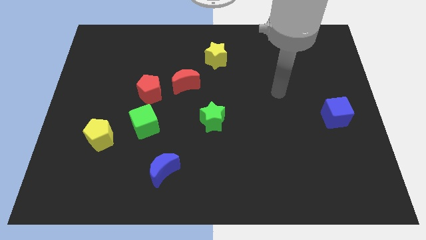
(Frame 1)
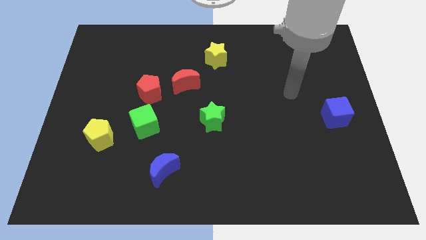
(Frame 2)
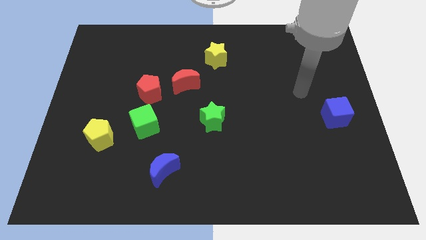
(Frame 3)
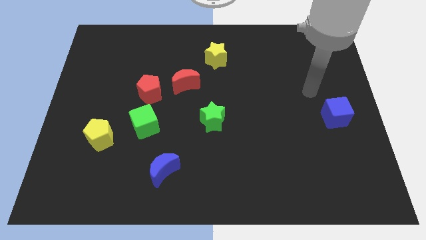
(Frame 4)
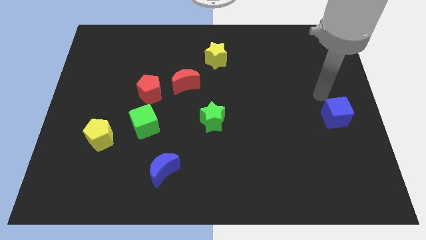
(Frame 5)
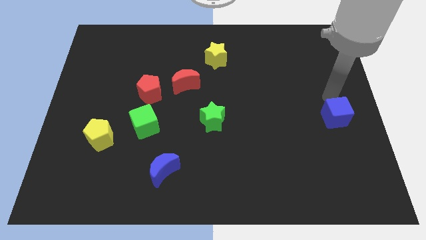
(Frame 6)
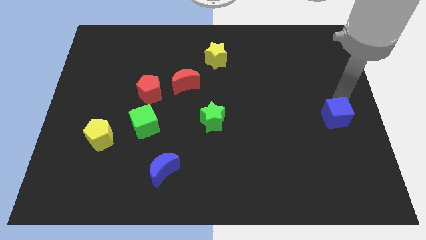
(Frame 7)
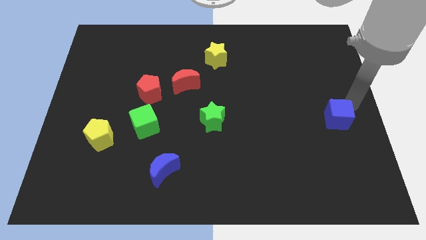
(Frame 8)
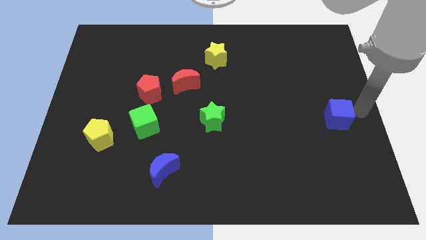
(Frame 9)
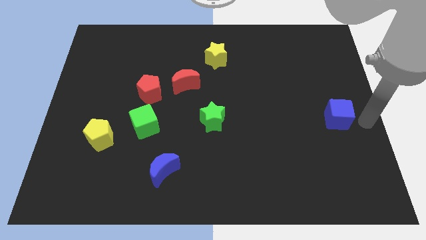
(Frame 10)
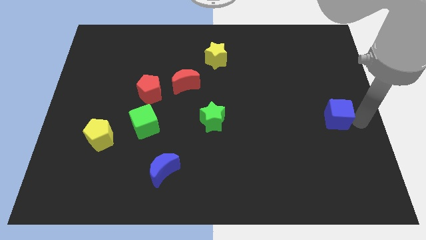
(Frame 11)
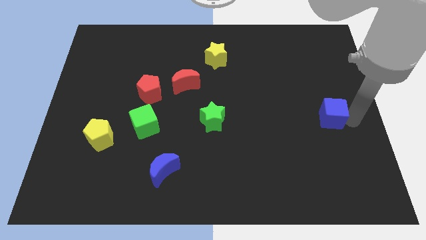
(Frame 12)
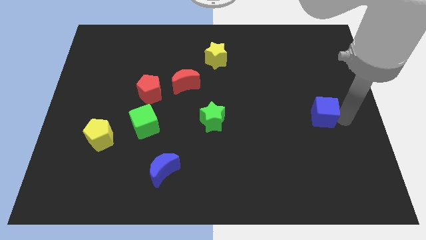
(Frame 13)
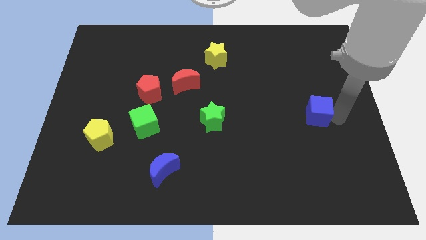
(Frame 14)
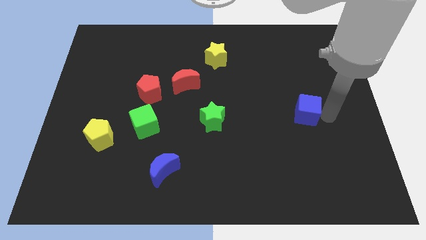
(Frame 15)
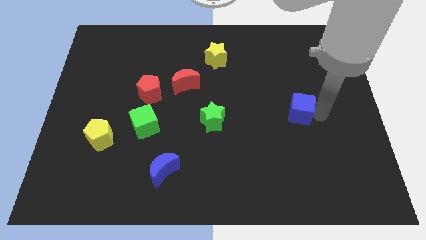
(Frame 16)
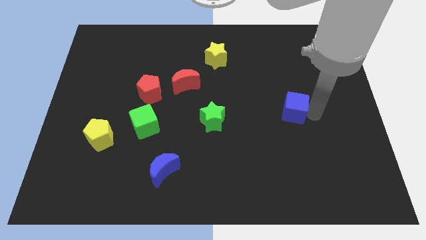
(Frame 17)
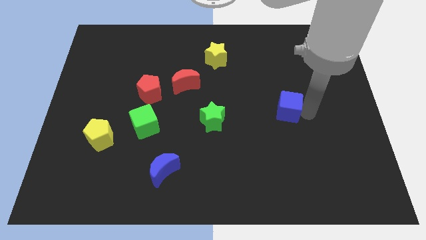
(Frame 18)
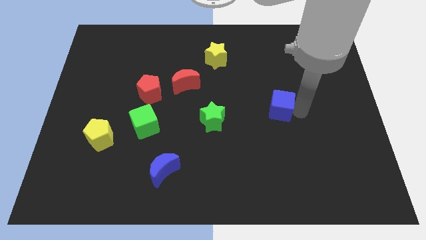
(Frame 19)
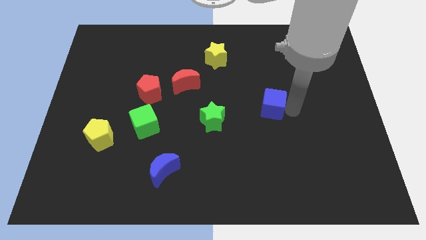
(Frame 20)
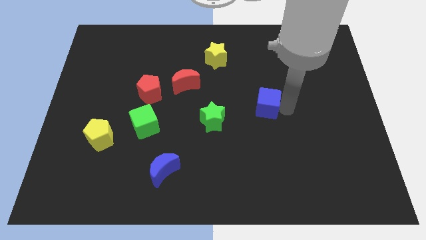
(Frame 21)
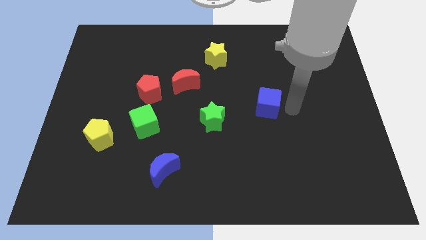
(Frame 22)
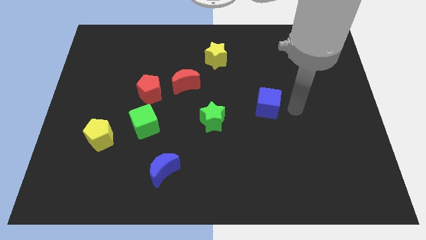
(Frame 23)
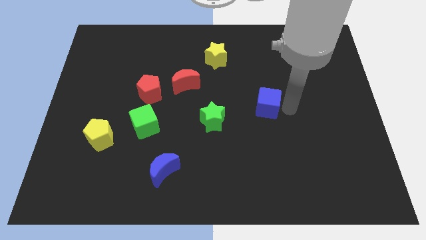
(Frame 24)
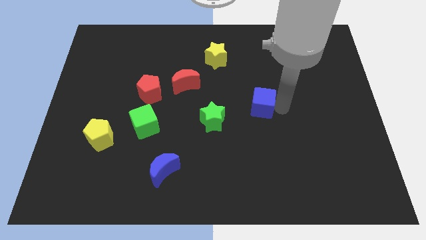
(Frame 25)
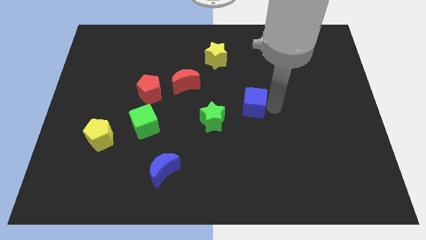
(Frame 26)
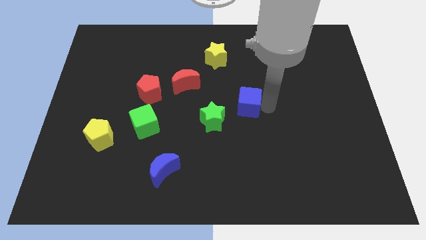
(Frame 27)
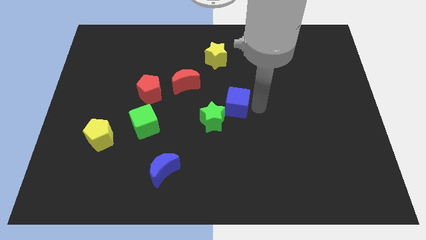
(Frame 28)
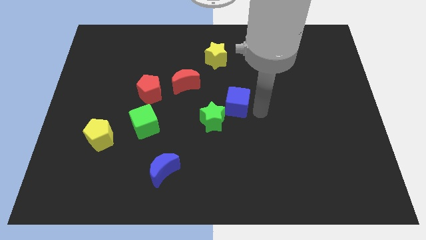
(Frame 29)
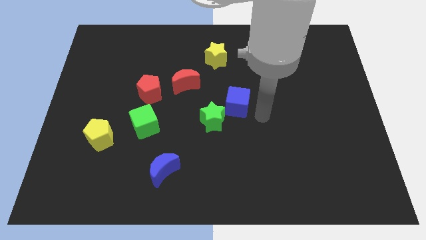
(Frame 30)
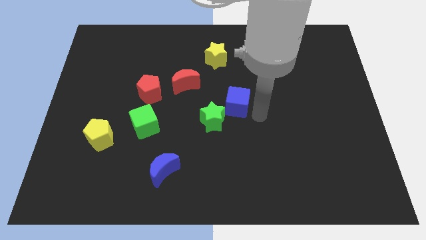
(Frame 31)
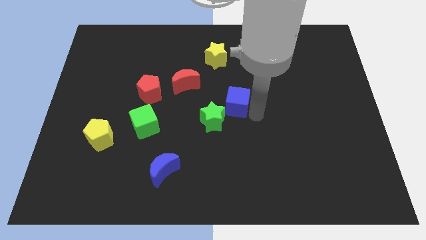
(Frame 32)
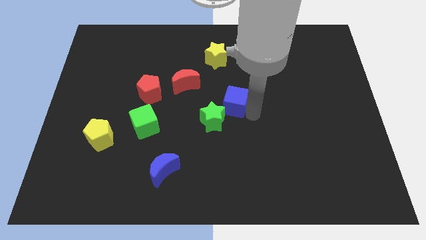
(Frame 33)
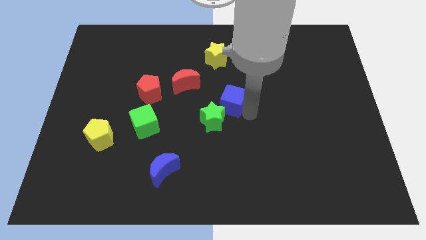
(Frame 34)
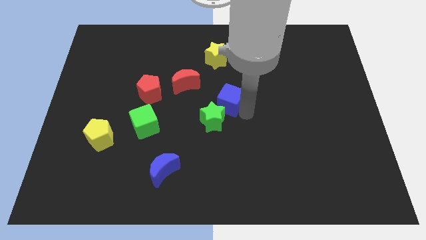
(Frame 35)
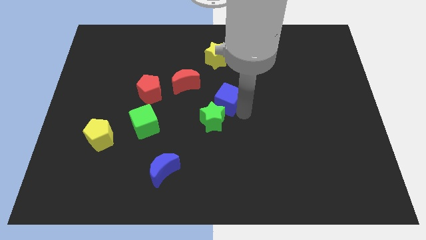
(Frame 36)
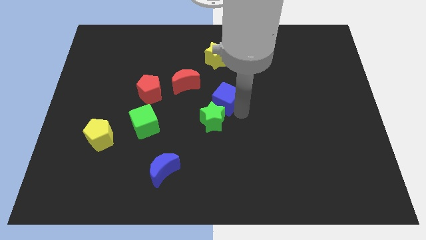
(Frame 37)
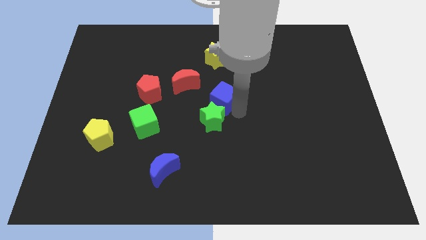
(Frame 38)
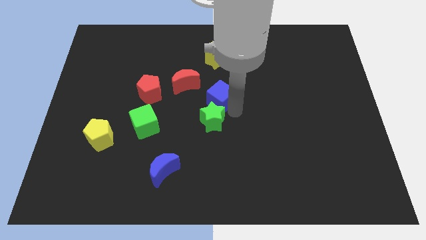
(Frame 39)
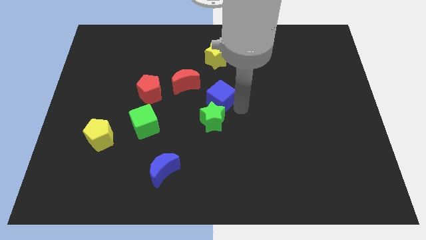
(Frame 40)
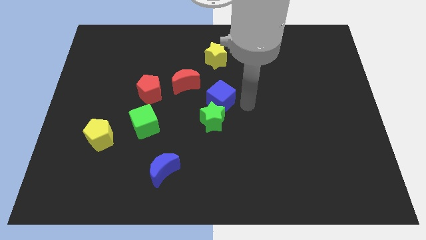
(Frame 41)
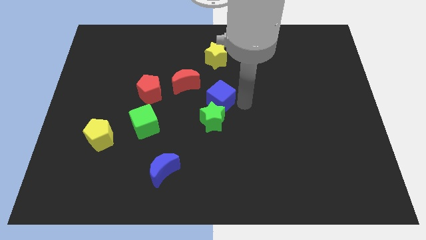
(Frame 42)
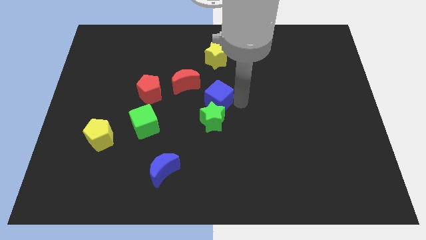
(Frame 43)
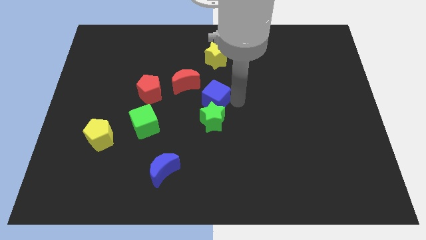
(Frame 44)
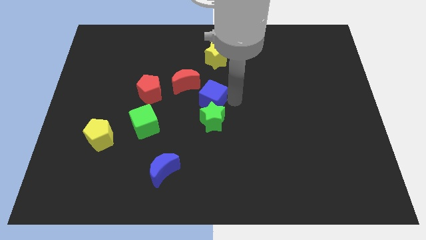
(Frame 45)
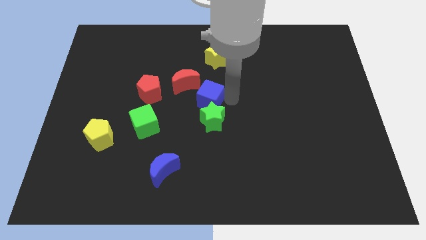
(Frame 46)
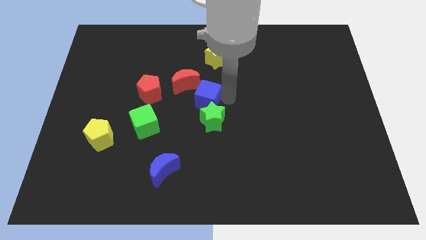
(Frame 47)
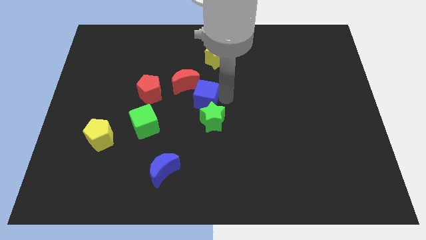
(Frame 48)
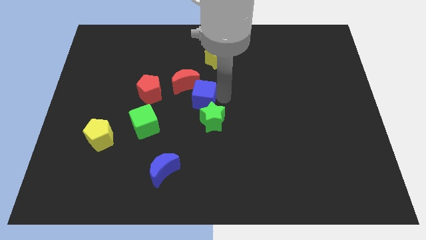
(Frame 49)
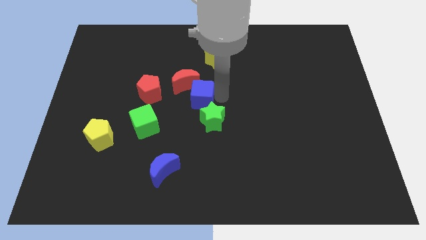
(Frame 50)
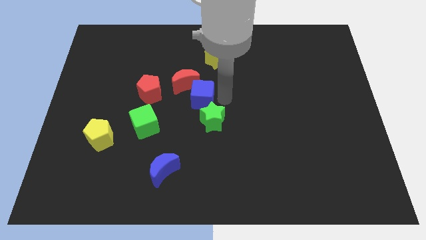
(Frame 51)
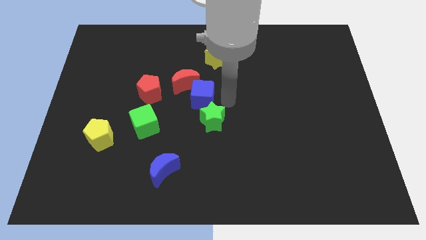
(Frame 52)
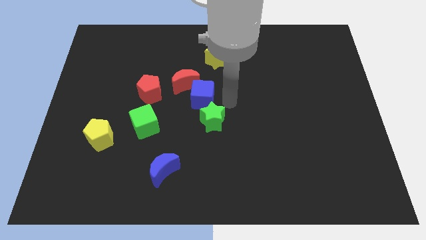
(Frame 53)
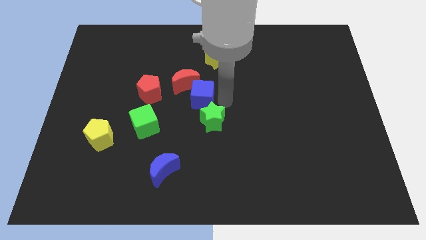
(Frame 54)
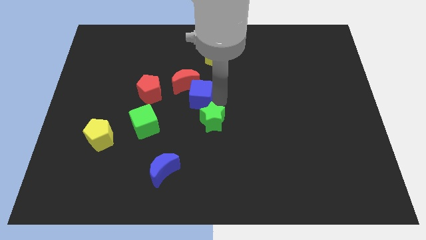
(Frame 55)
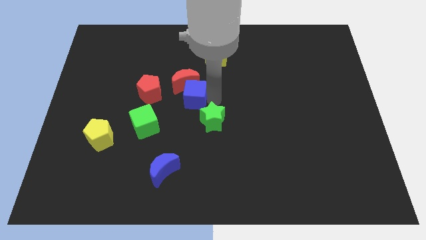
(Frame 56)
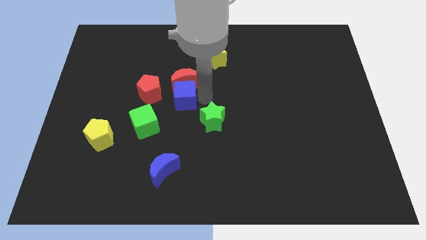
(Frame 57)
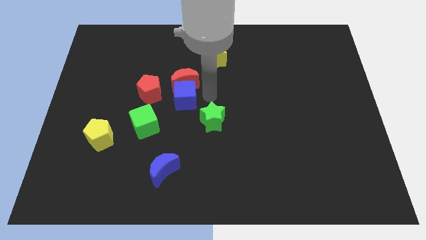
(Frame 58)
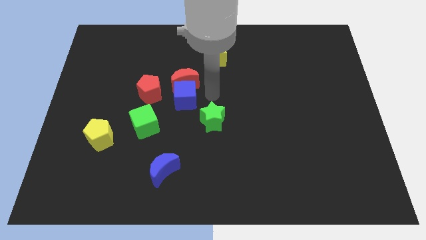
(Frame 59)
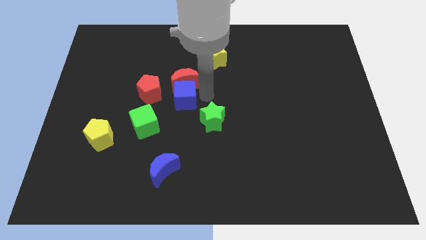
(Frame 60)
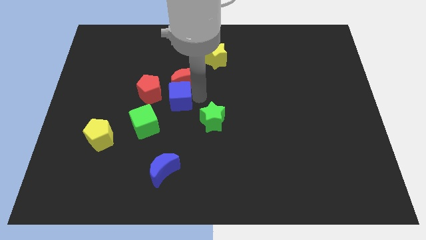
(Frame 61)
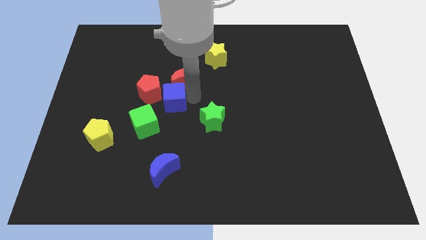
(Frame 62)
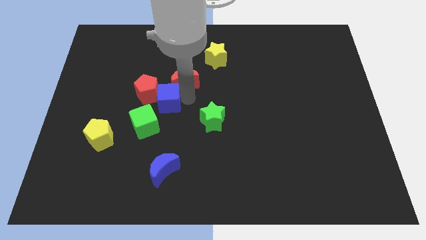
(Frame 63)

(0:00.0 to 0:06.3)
put the blue cube next to the red pentagon

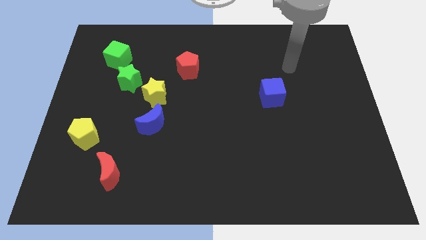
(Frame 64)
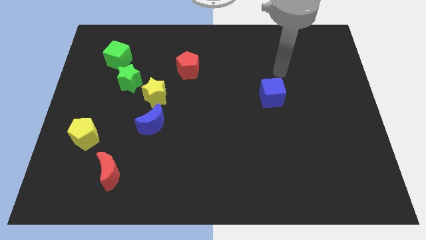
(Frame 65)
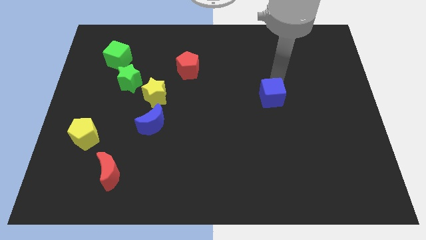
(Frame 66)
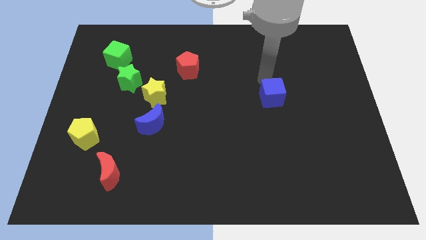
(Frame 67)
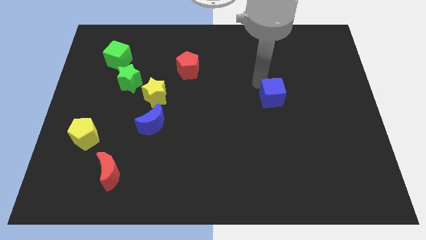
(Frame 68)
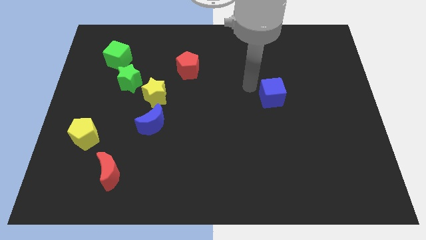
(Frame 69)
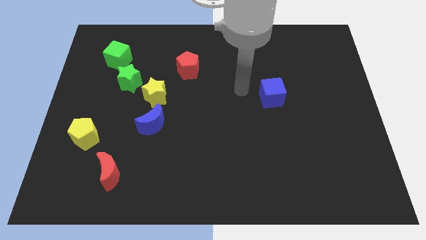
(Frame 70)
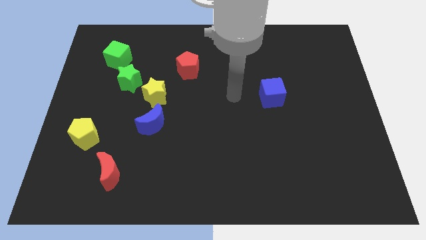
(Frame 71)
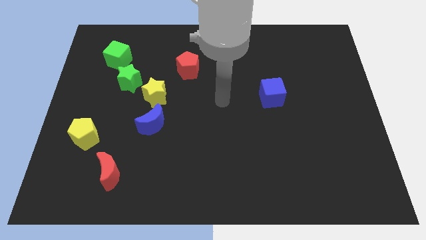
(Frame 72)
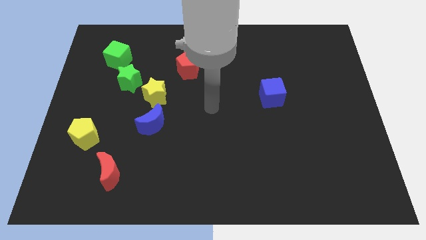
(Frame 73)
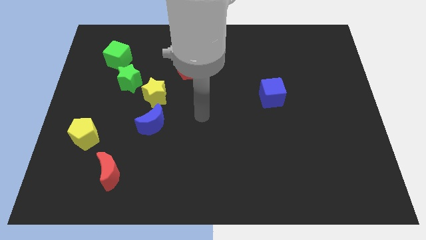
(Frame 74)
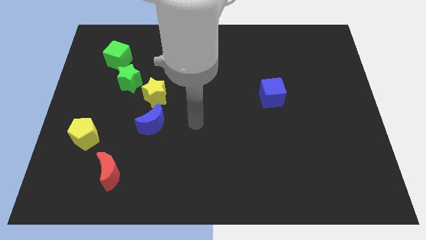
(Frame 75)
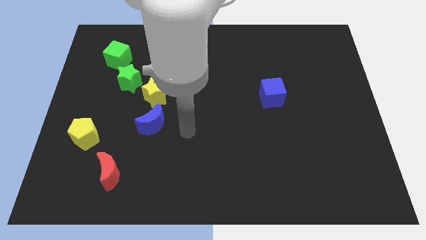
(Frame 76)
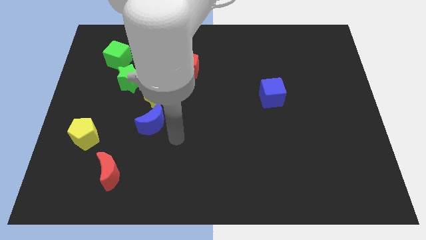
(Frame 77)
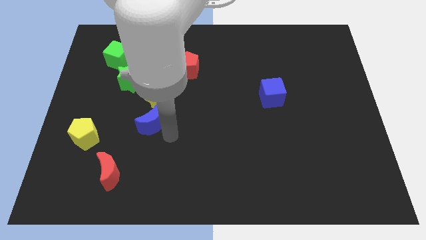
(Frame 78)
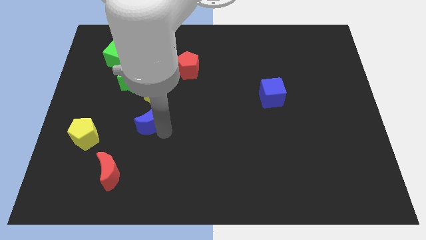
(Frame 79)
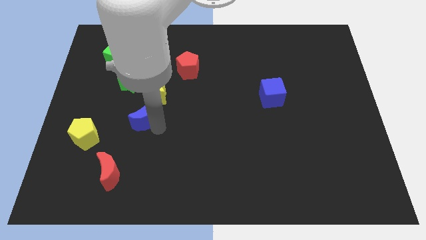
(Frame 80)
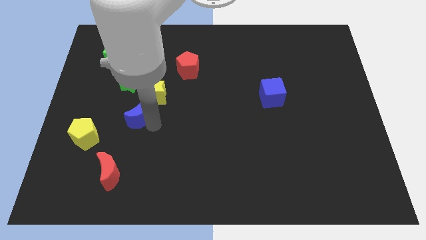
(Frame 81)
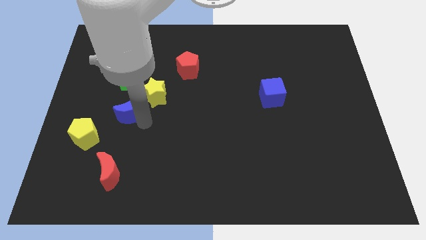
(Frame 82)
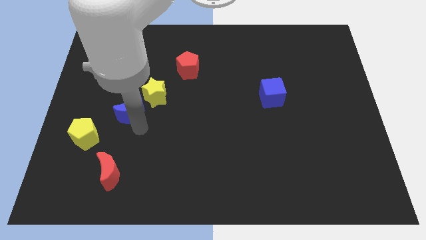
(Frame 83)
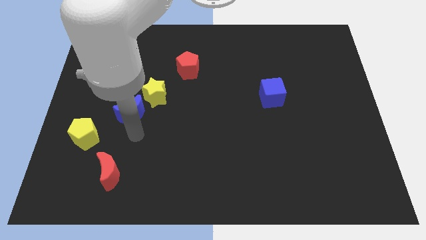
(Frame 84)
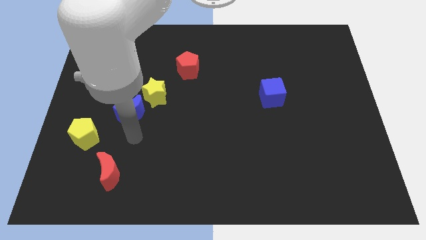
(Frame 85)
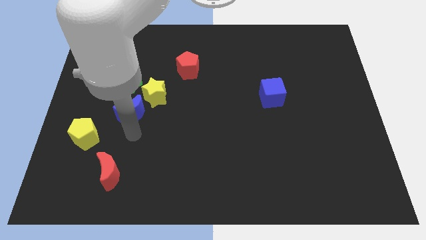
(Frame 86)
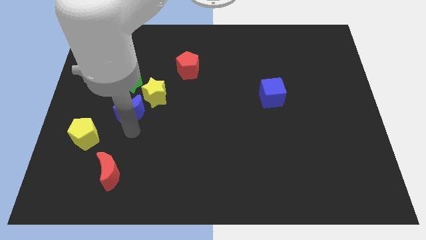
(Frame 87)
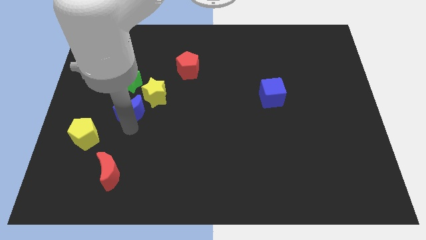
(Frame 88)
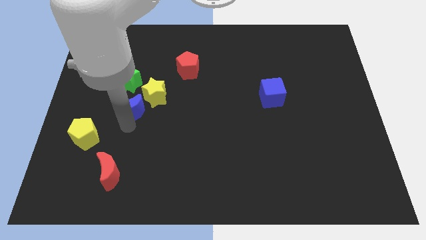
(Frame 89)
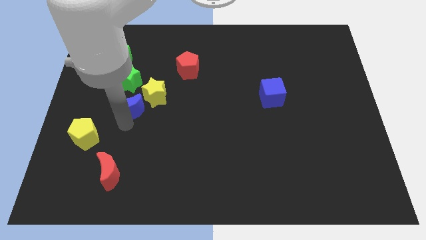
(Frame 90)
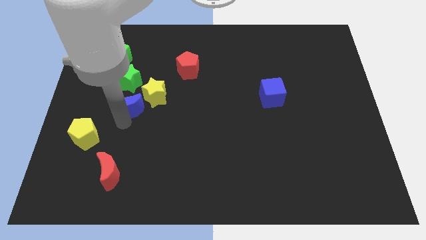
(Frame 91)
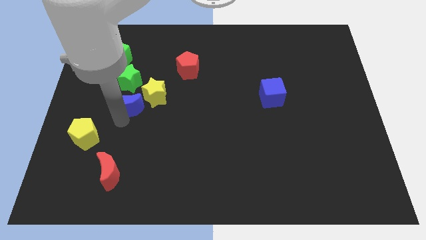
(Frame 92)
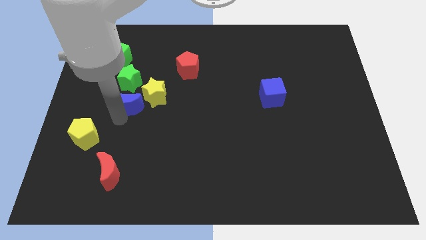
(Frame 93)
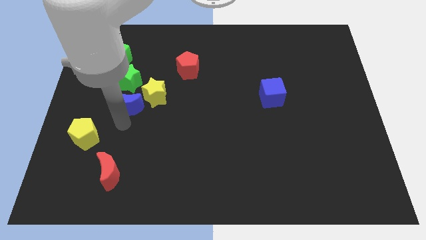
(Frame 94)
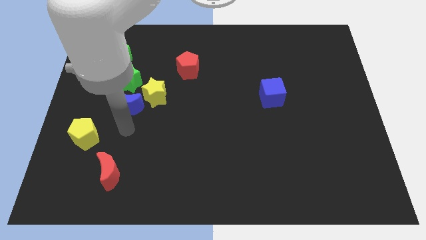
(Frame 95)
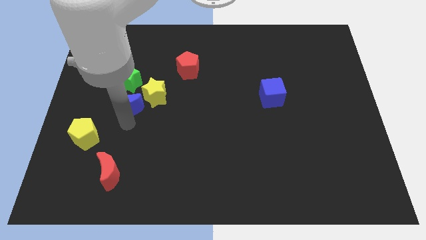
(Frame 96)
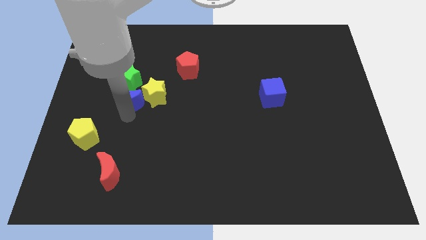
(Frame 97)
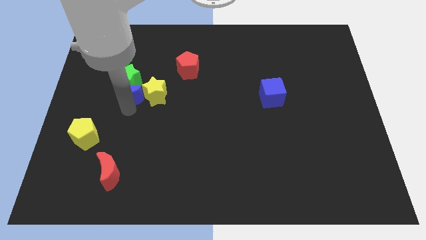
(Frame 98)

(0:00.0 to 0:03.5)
put the blue moon close to the green star
